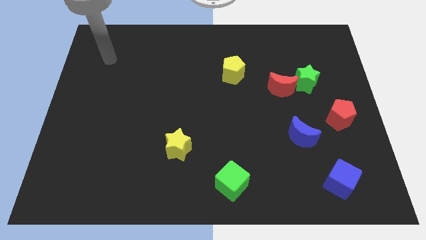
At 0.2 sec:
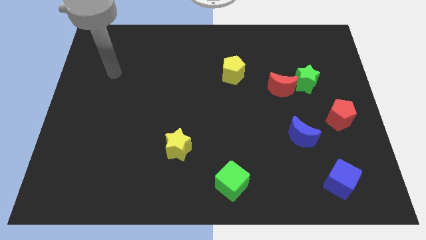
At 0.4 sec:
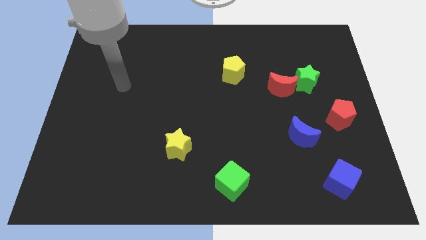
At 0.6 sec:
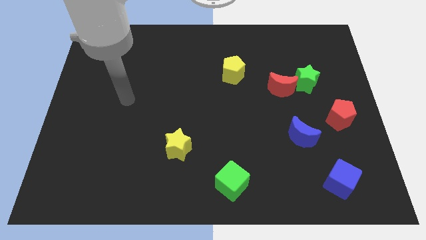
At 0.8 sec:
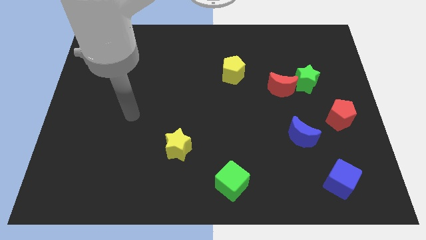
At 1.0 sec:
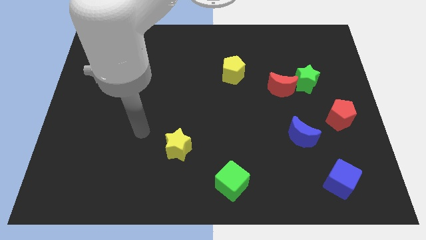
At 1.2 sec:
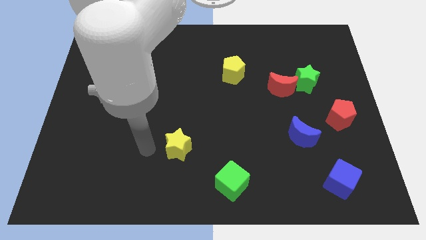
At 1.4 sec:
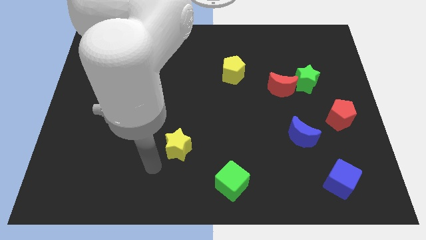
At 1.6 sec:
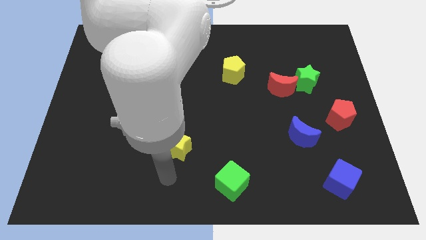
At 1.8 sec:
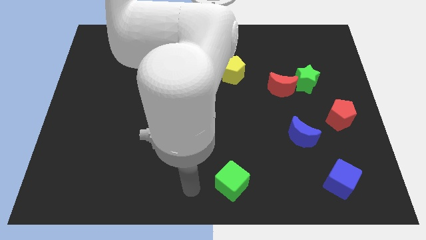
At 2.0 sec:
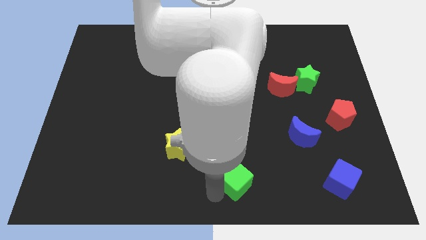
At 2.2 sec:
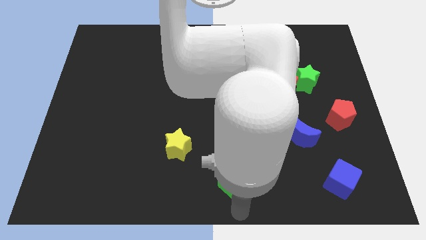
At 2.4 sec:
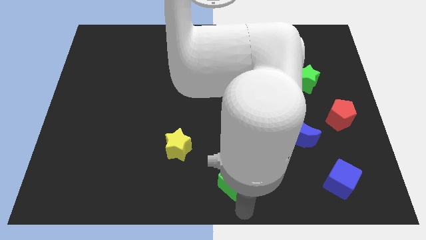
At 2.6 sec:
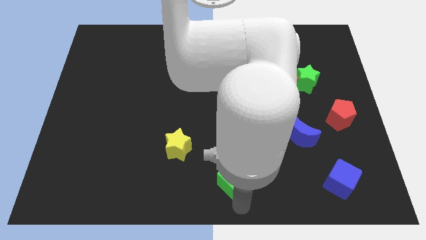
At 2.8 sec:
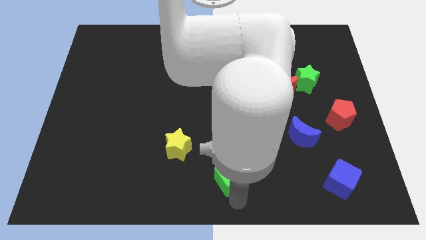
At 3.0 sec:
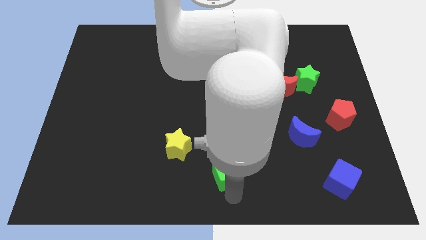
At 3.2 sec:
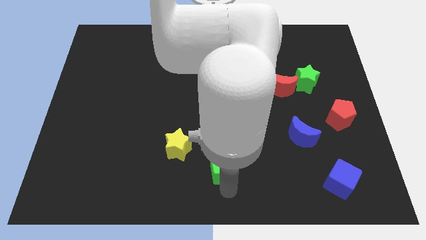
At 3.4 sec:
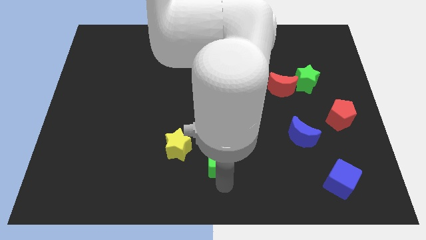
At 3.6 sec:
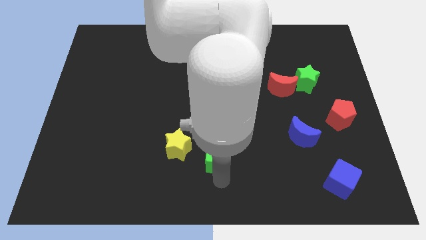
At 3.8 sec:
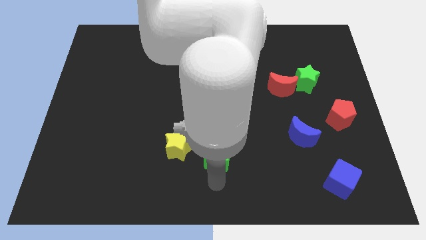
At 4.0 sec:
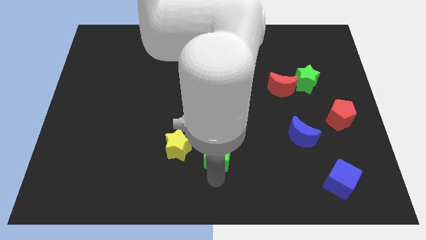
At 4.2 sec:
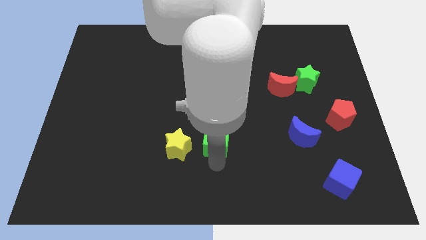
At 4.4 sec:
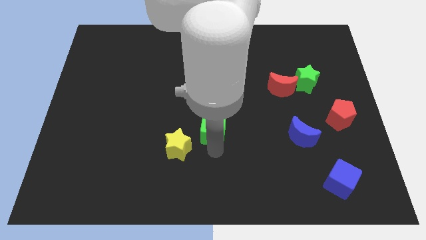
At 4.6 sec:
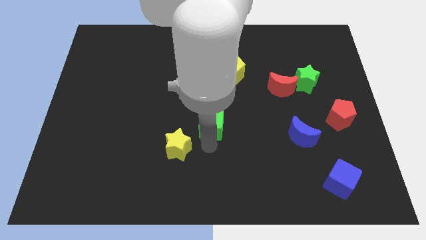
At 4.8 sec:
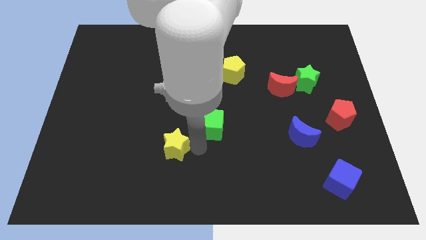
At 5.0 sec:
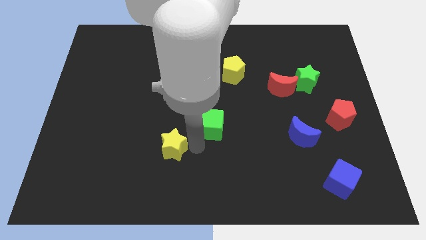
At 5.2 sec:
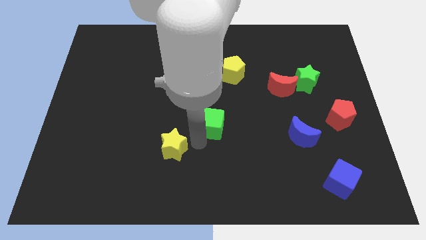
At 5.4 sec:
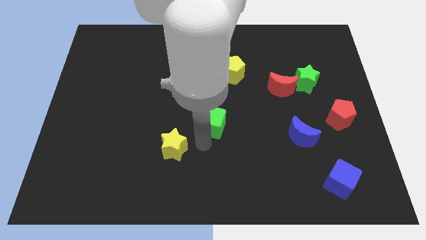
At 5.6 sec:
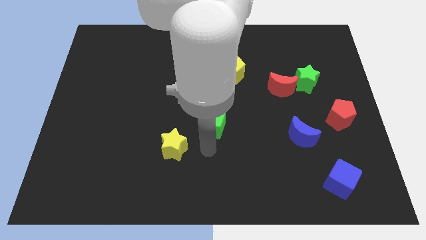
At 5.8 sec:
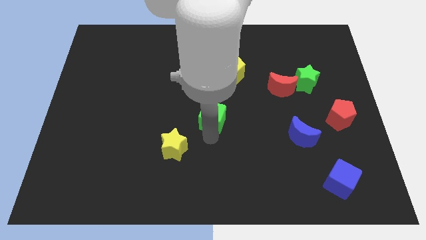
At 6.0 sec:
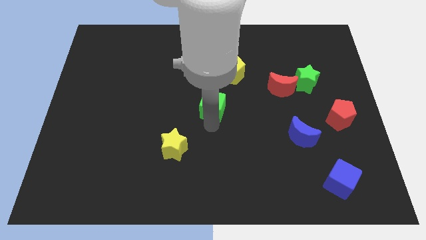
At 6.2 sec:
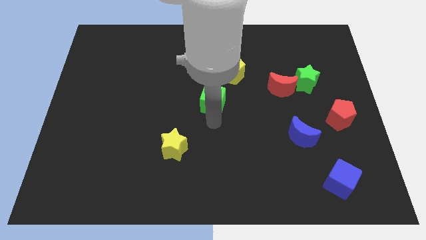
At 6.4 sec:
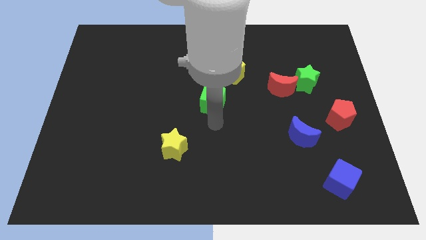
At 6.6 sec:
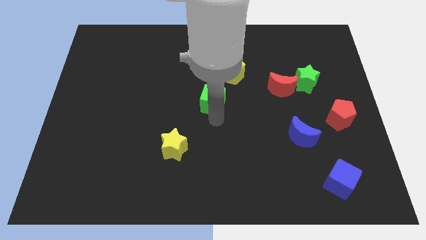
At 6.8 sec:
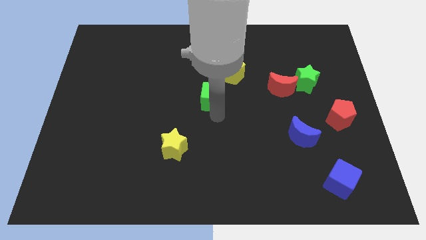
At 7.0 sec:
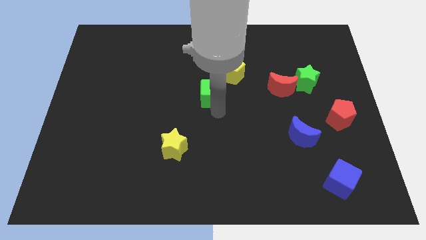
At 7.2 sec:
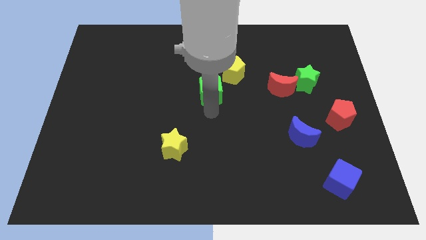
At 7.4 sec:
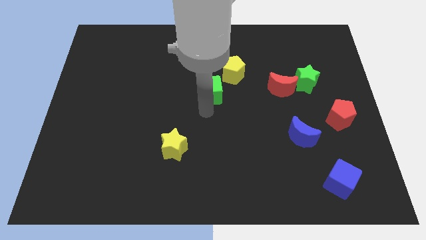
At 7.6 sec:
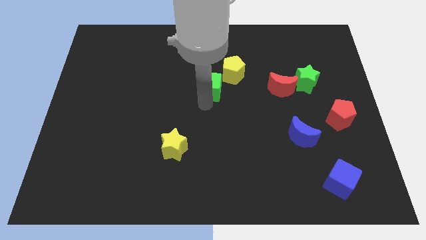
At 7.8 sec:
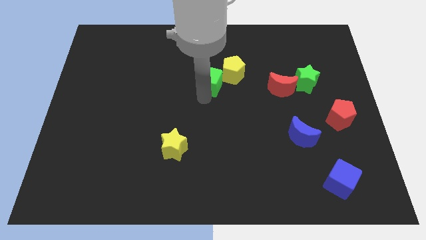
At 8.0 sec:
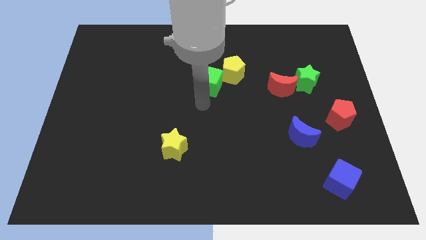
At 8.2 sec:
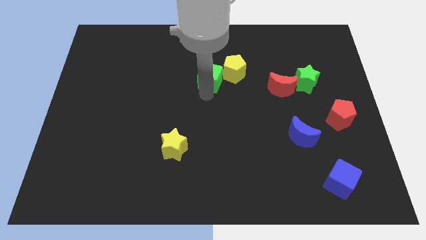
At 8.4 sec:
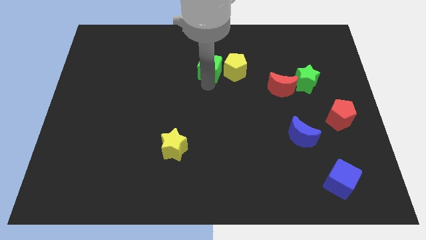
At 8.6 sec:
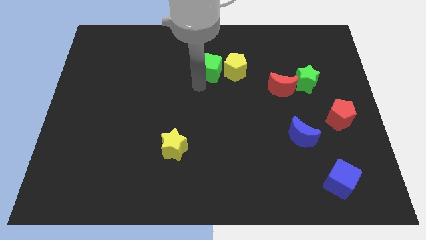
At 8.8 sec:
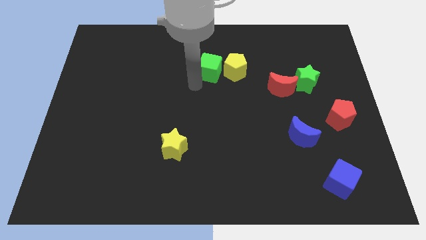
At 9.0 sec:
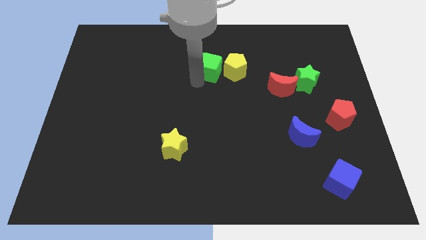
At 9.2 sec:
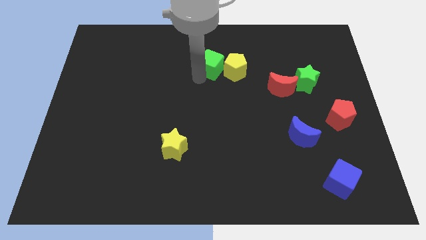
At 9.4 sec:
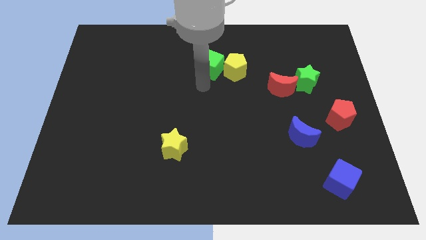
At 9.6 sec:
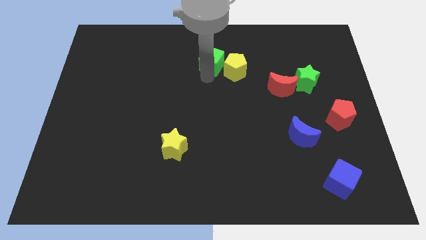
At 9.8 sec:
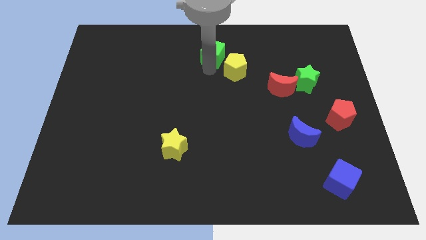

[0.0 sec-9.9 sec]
push the green cube to the towards your base

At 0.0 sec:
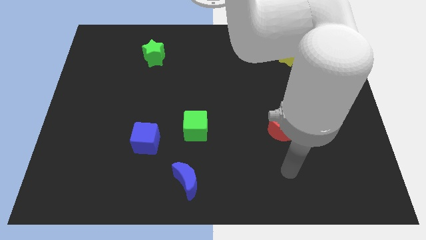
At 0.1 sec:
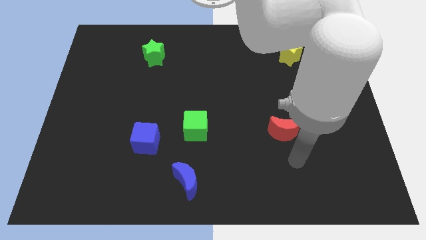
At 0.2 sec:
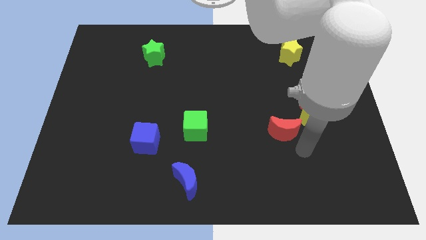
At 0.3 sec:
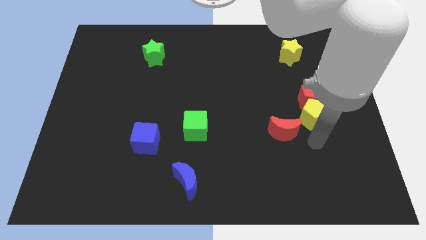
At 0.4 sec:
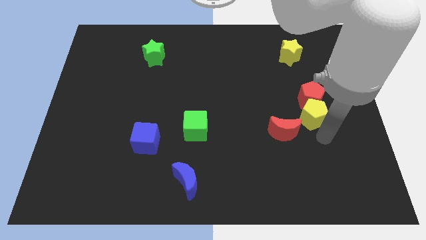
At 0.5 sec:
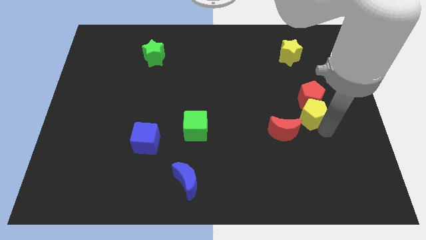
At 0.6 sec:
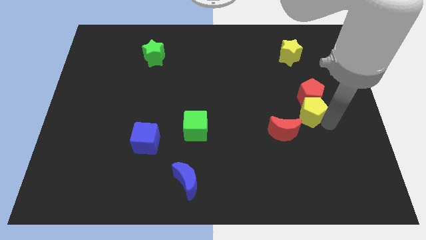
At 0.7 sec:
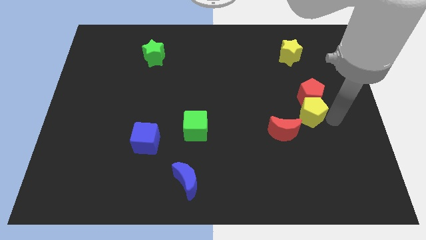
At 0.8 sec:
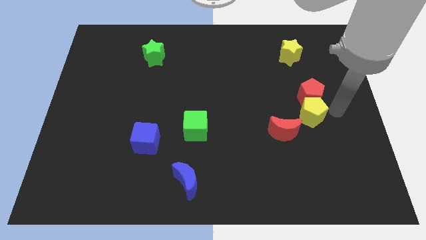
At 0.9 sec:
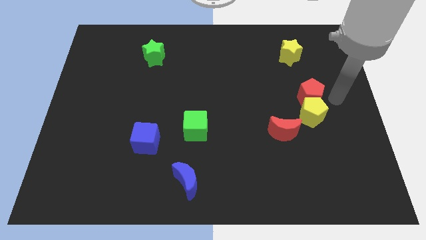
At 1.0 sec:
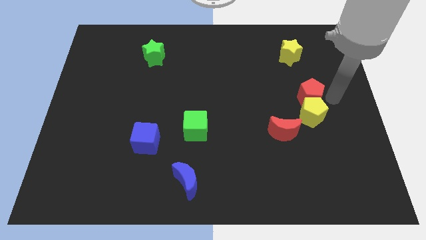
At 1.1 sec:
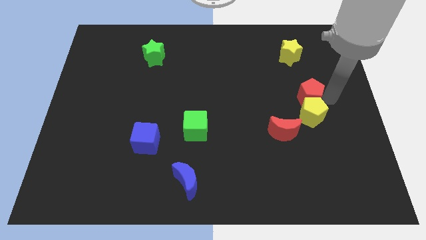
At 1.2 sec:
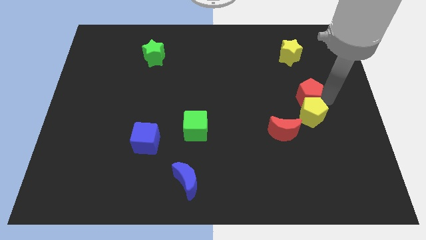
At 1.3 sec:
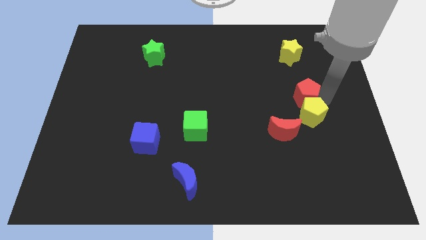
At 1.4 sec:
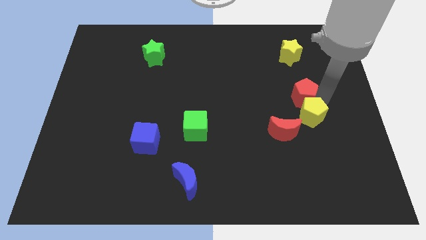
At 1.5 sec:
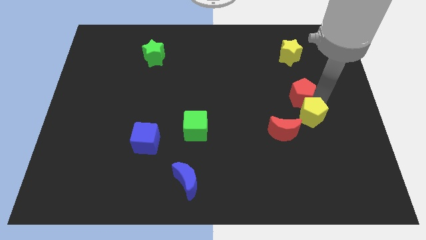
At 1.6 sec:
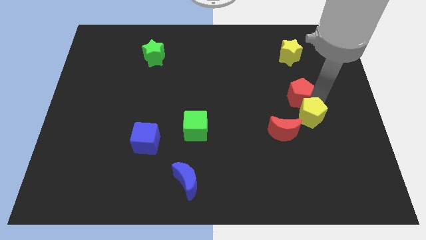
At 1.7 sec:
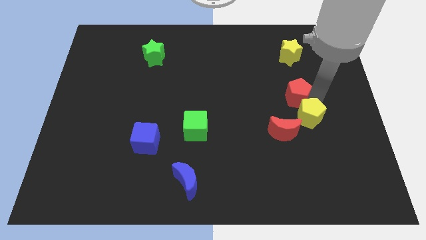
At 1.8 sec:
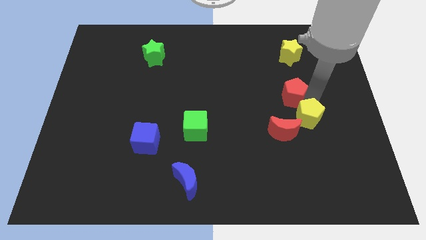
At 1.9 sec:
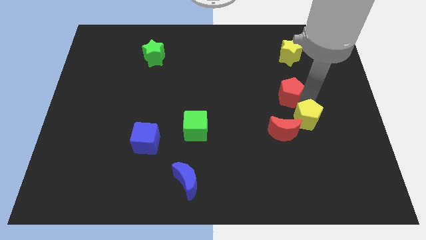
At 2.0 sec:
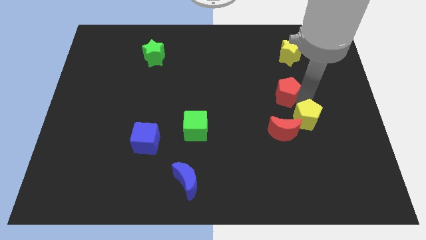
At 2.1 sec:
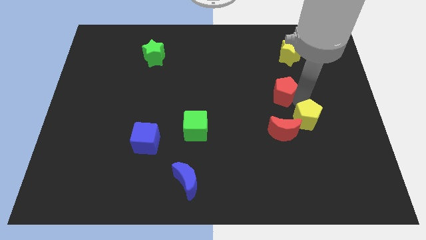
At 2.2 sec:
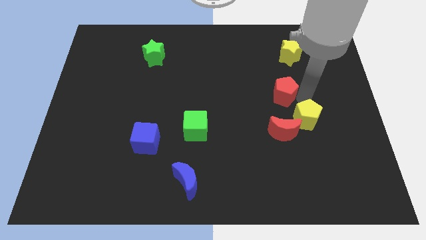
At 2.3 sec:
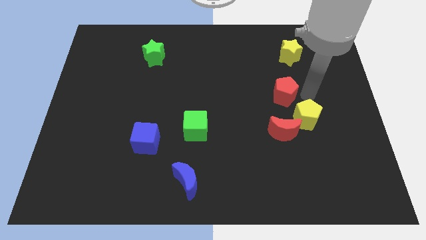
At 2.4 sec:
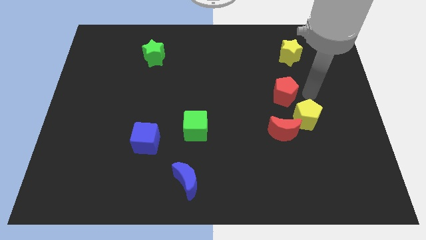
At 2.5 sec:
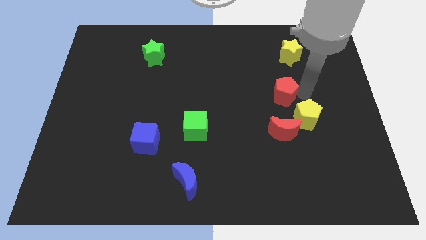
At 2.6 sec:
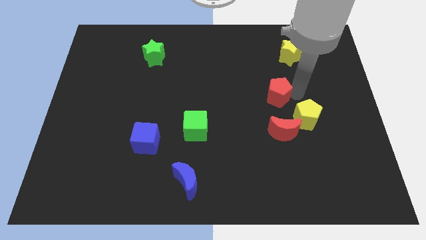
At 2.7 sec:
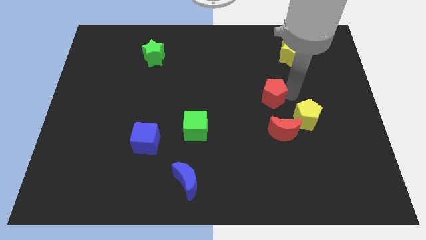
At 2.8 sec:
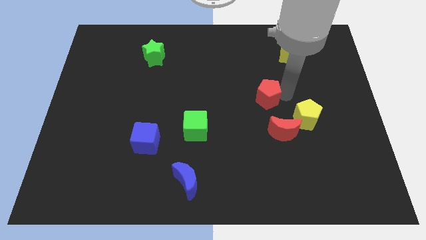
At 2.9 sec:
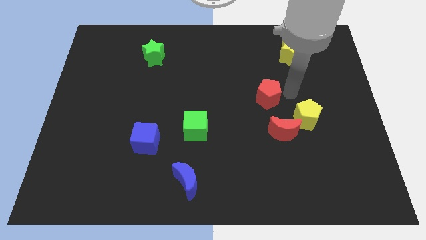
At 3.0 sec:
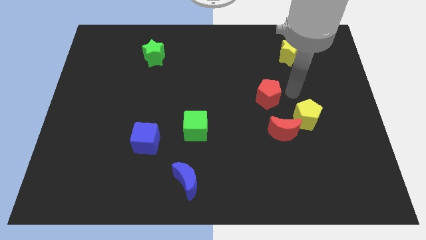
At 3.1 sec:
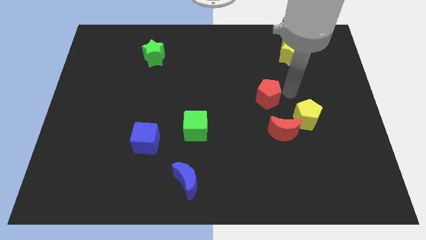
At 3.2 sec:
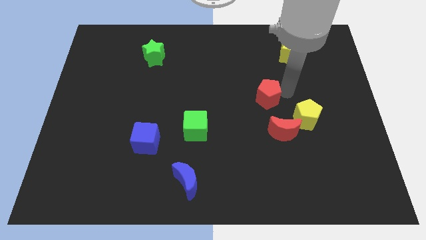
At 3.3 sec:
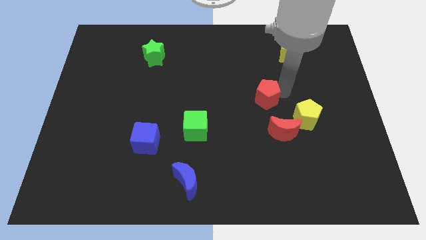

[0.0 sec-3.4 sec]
put the red pentagon to the middle
